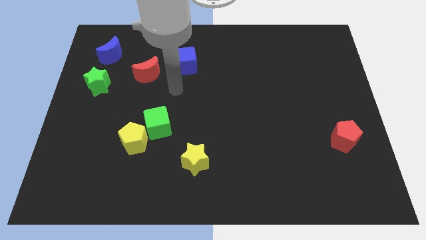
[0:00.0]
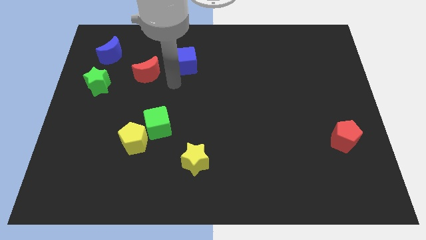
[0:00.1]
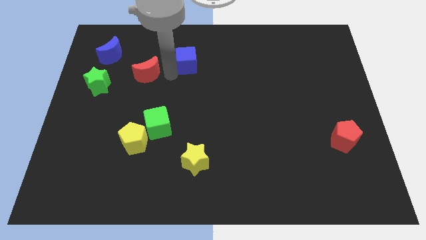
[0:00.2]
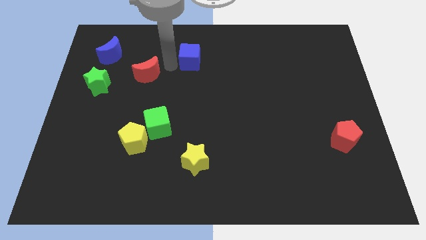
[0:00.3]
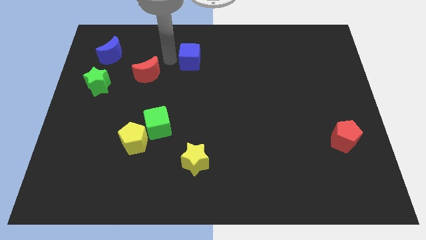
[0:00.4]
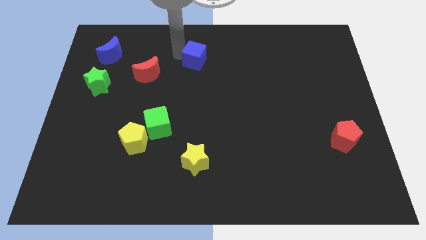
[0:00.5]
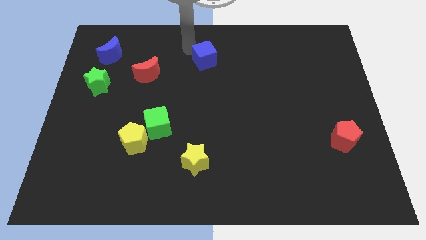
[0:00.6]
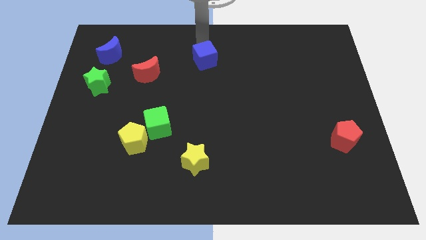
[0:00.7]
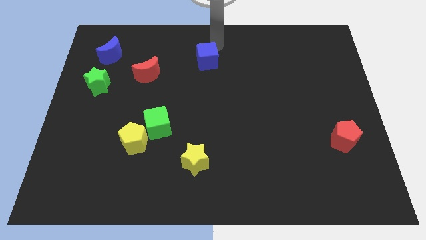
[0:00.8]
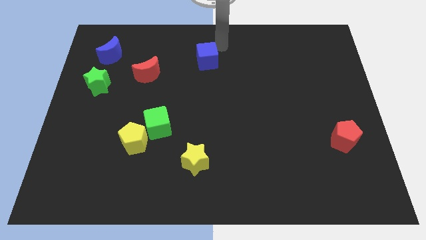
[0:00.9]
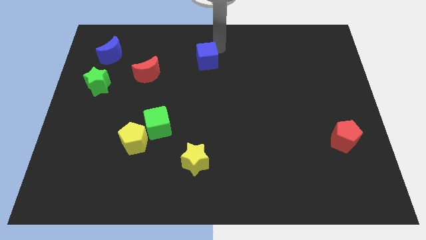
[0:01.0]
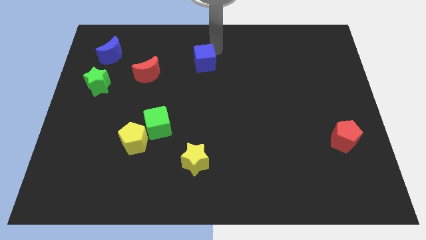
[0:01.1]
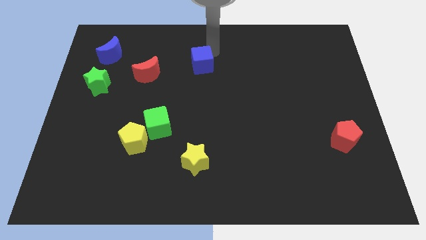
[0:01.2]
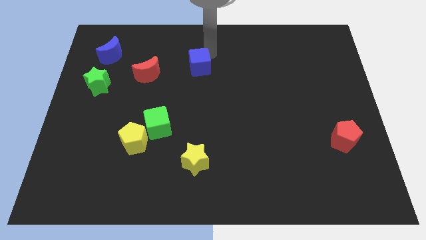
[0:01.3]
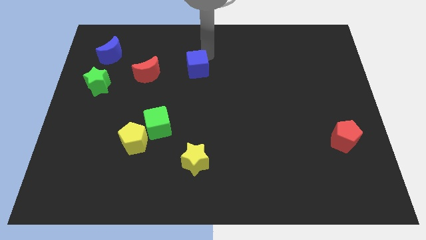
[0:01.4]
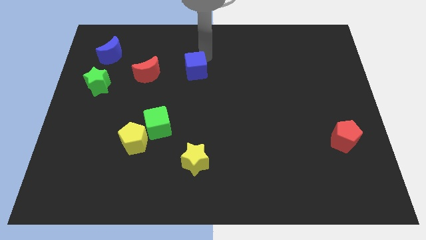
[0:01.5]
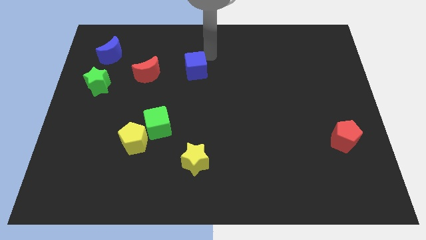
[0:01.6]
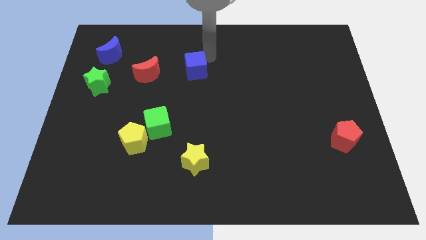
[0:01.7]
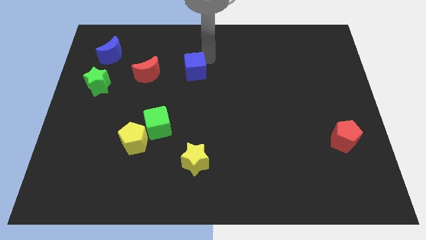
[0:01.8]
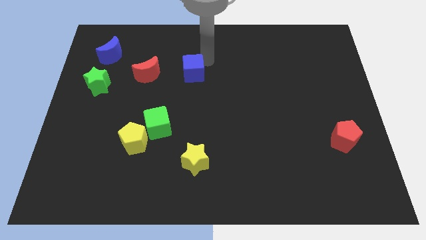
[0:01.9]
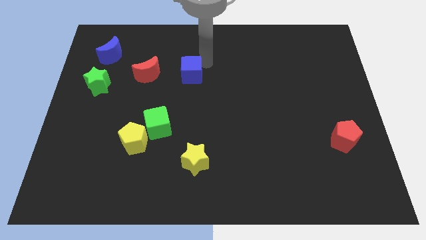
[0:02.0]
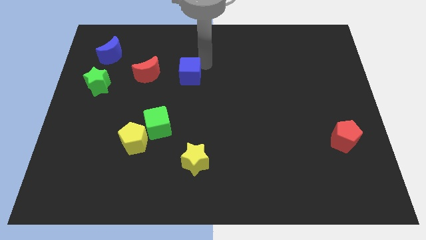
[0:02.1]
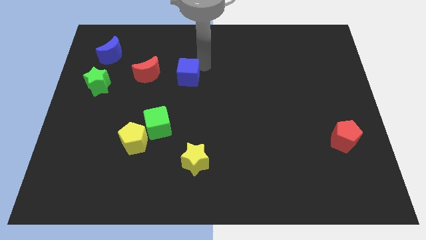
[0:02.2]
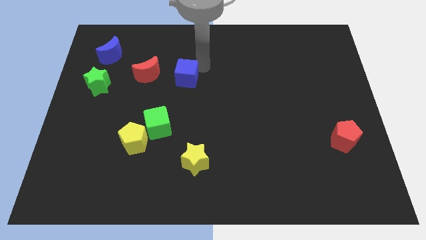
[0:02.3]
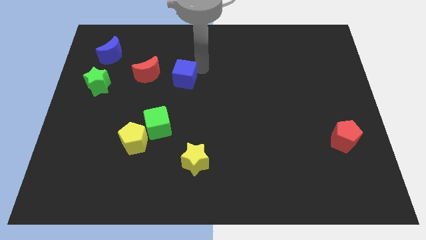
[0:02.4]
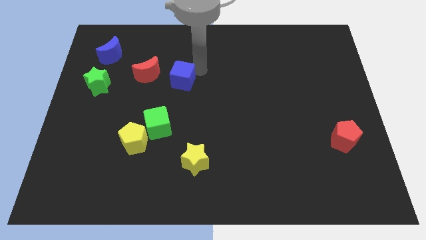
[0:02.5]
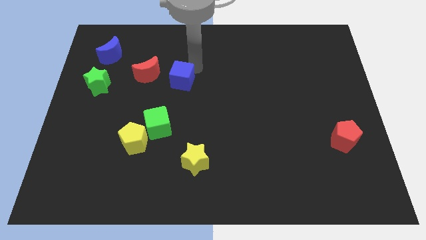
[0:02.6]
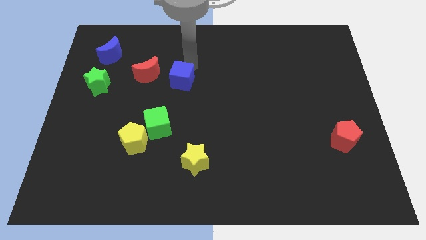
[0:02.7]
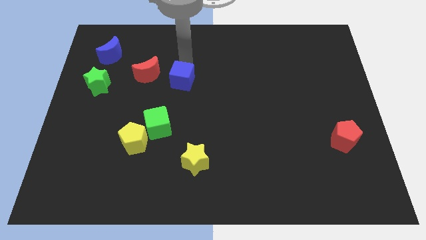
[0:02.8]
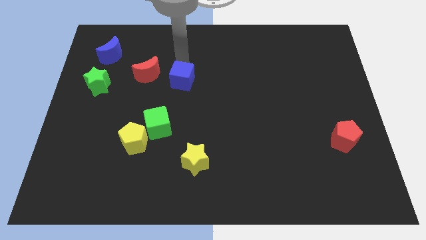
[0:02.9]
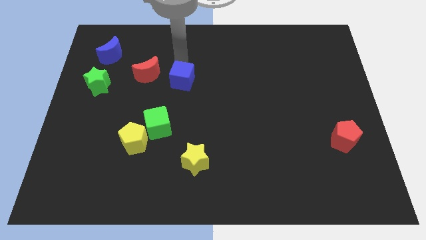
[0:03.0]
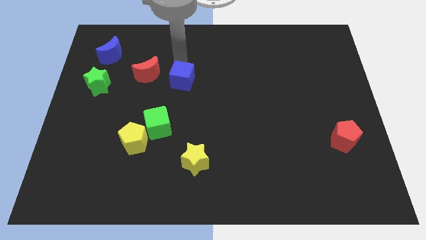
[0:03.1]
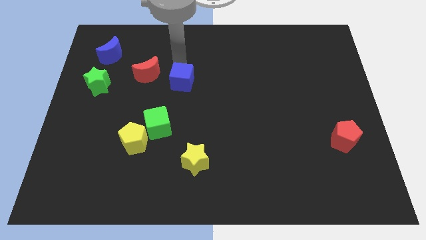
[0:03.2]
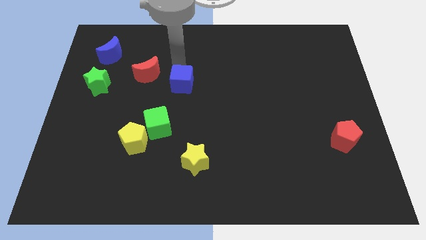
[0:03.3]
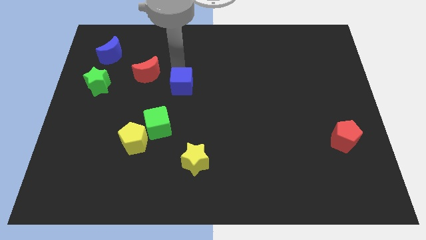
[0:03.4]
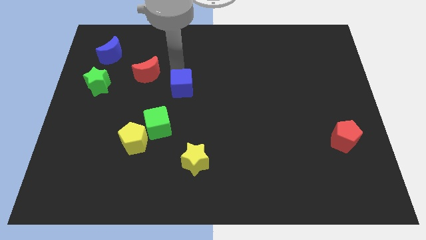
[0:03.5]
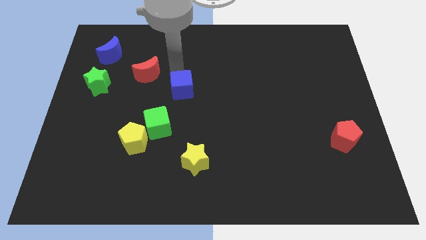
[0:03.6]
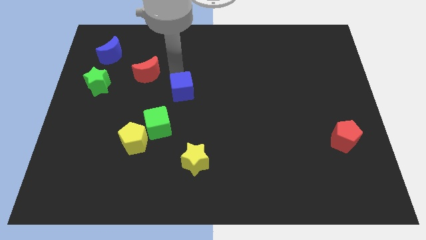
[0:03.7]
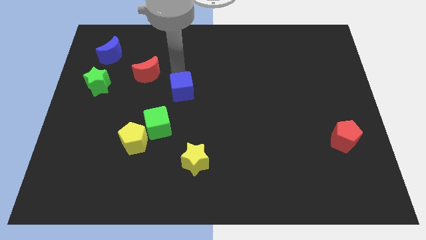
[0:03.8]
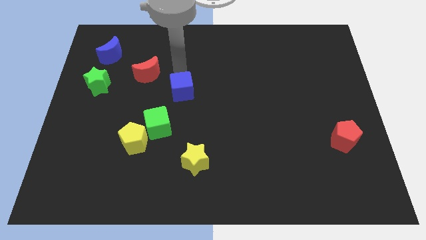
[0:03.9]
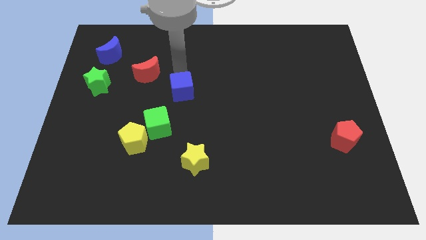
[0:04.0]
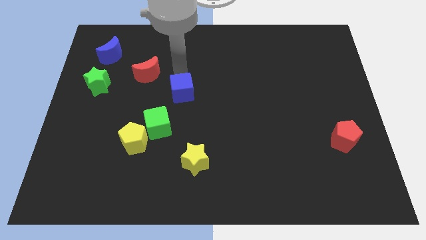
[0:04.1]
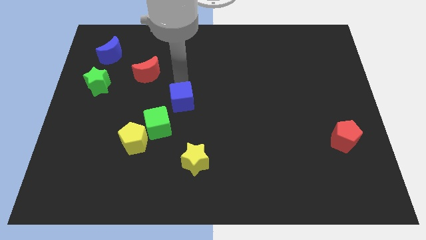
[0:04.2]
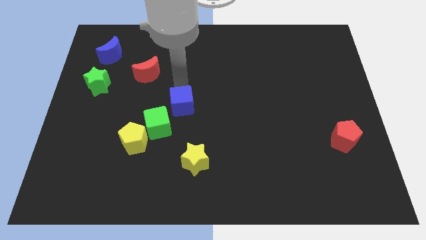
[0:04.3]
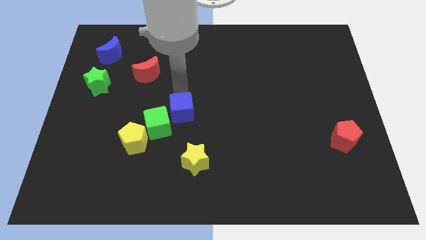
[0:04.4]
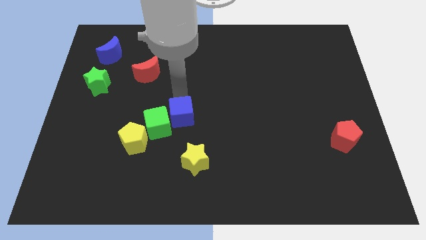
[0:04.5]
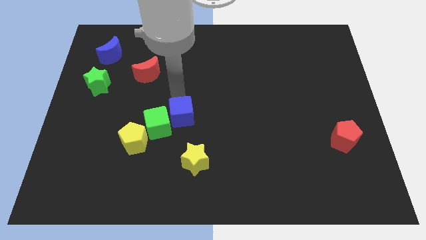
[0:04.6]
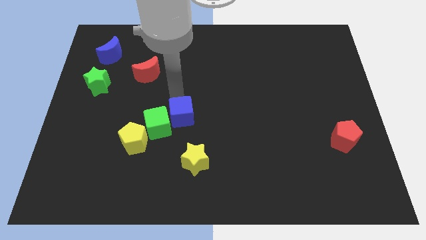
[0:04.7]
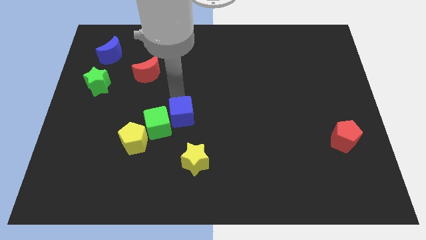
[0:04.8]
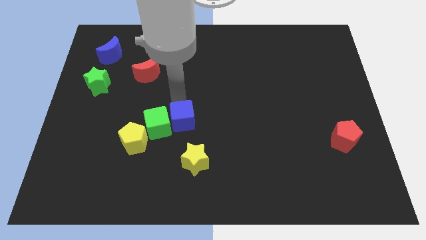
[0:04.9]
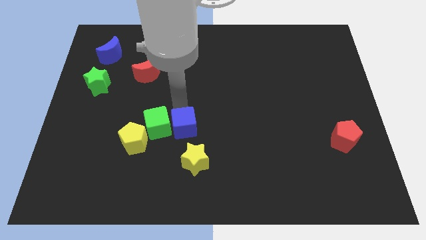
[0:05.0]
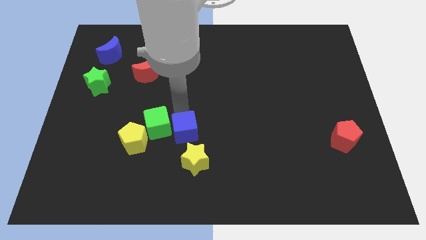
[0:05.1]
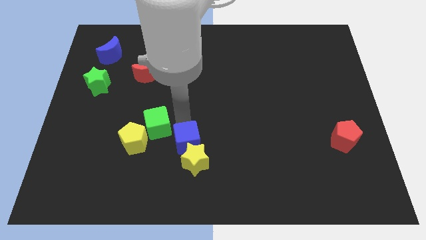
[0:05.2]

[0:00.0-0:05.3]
push the blue cube close to the yellow star

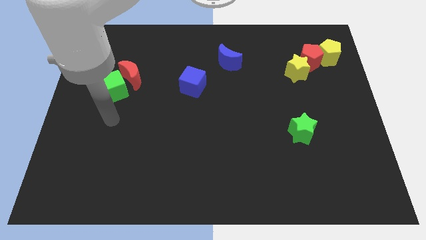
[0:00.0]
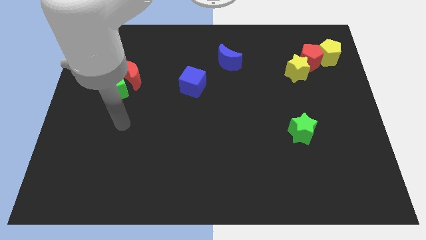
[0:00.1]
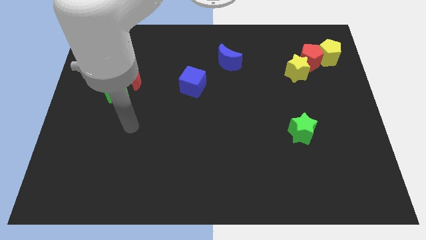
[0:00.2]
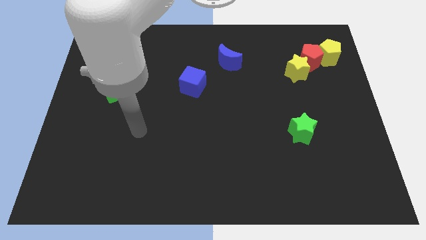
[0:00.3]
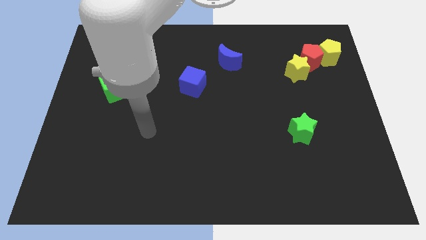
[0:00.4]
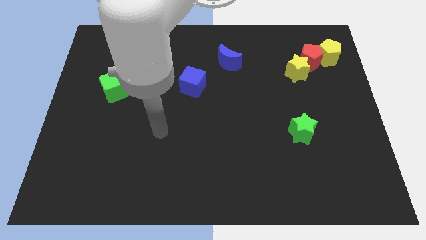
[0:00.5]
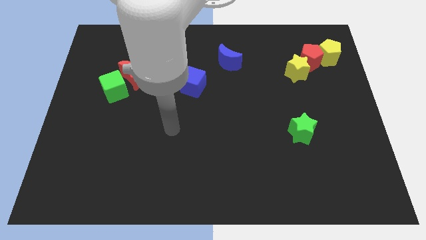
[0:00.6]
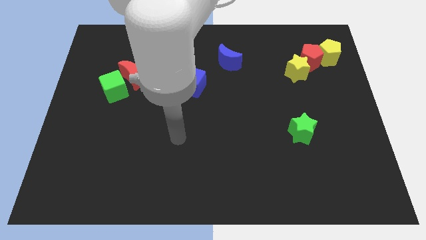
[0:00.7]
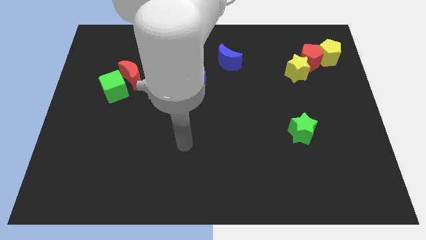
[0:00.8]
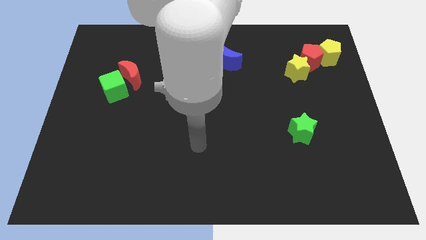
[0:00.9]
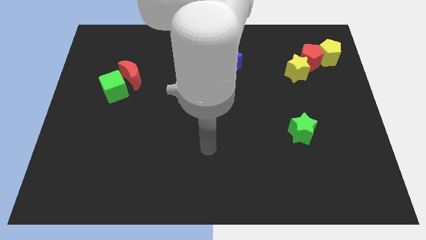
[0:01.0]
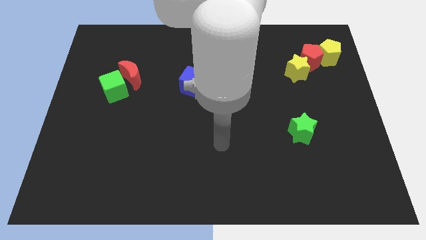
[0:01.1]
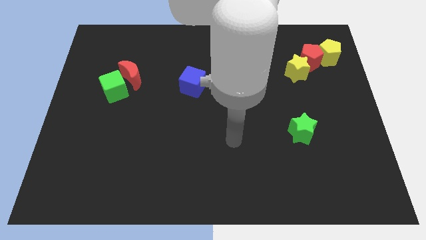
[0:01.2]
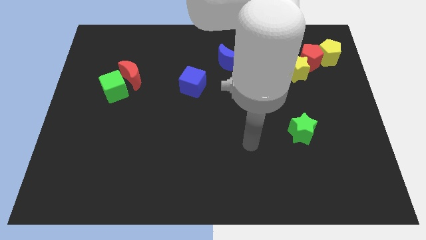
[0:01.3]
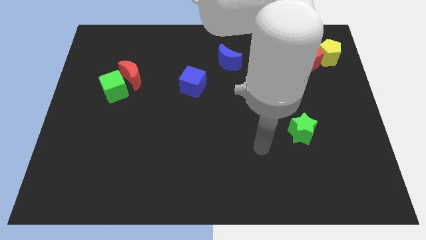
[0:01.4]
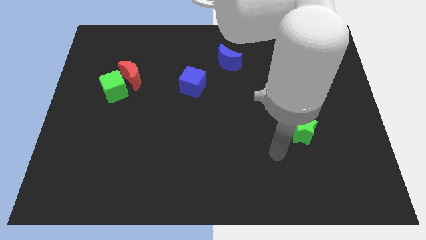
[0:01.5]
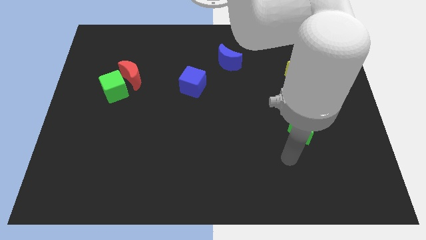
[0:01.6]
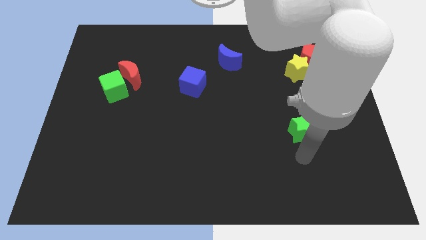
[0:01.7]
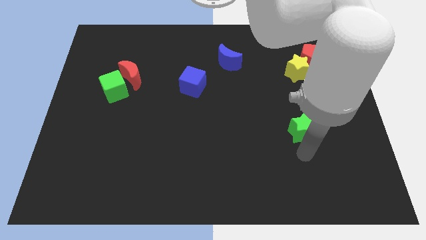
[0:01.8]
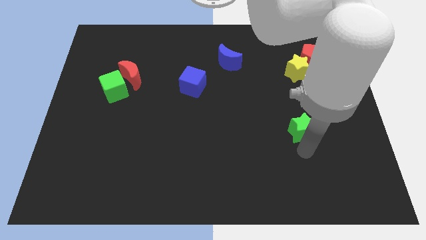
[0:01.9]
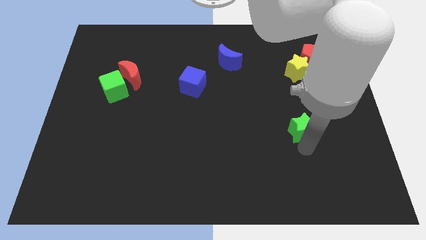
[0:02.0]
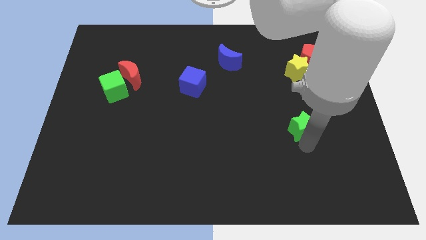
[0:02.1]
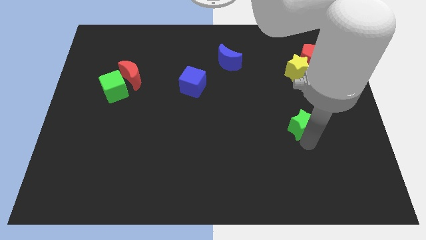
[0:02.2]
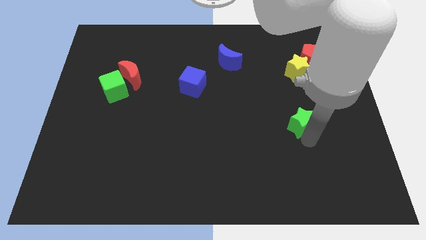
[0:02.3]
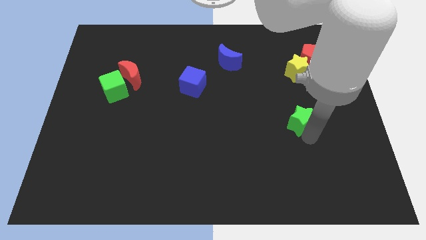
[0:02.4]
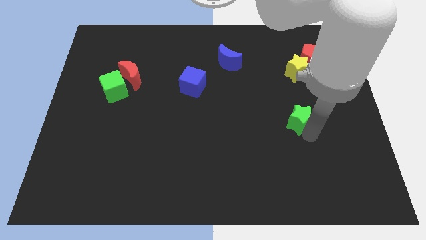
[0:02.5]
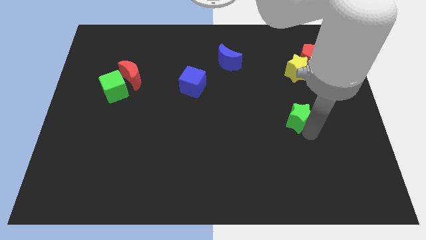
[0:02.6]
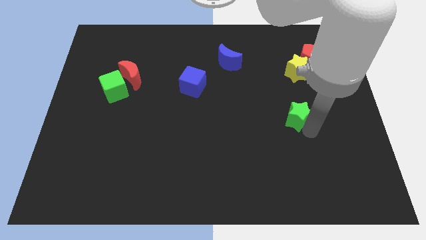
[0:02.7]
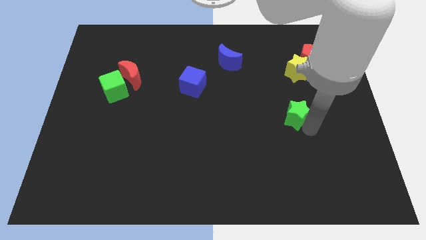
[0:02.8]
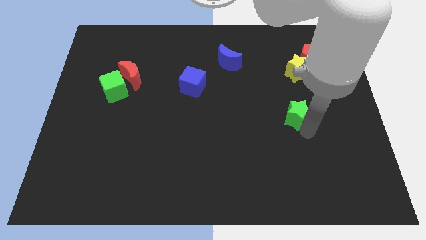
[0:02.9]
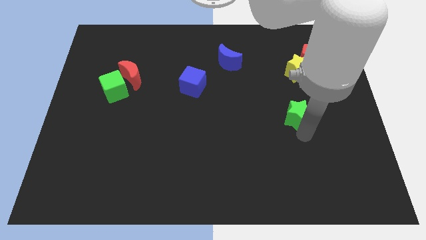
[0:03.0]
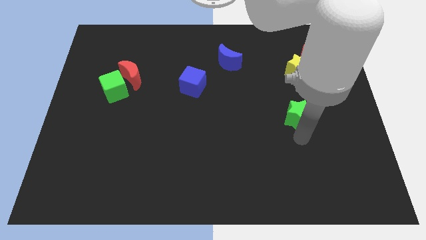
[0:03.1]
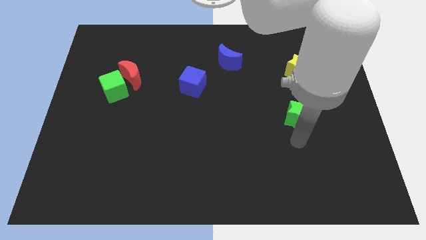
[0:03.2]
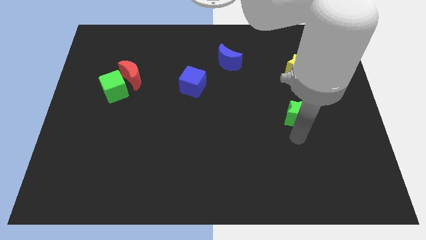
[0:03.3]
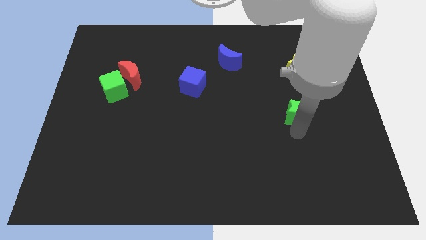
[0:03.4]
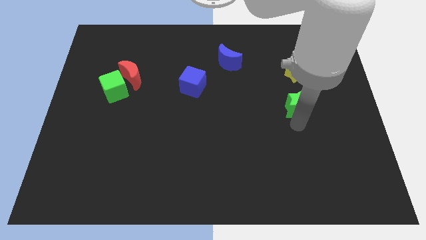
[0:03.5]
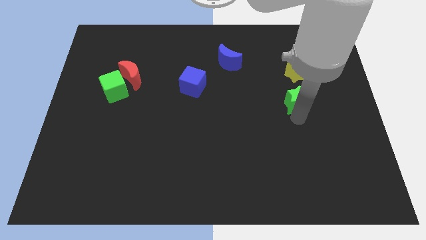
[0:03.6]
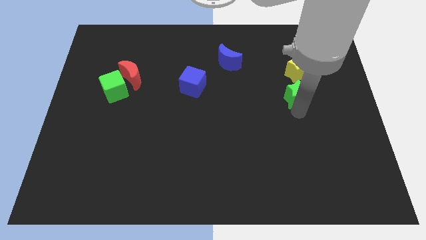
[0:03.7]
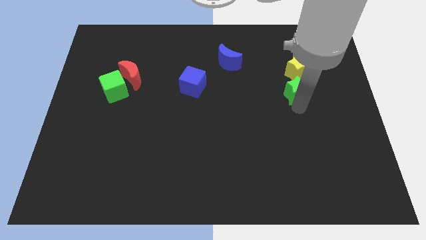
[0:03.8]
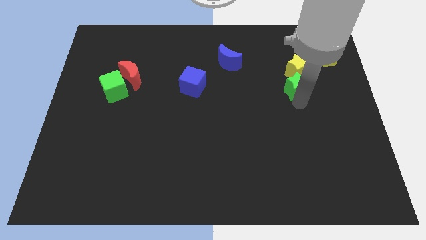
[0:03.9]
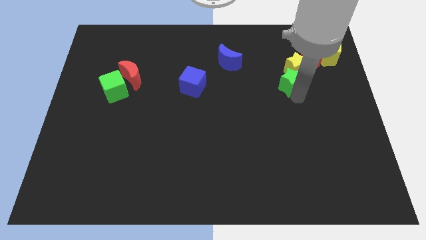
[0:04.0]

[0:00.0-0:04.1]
put the green star close to the yellow star
